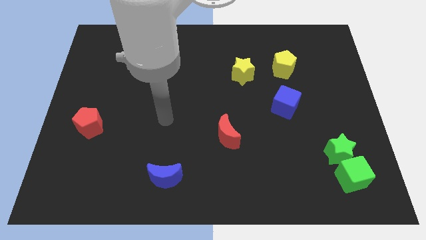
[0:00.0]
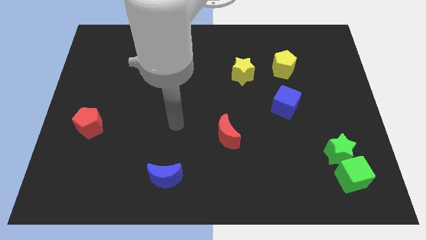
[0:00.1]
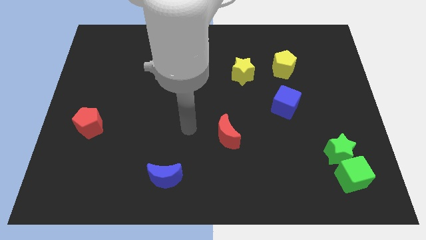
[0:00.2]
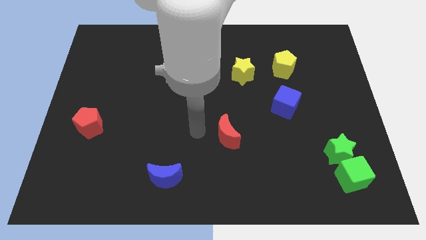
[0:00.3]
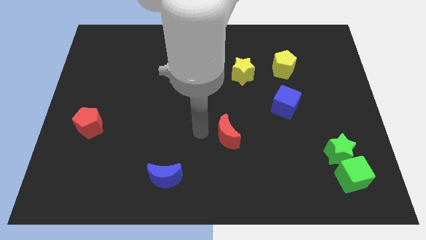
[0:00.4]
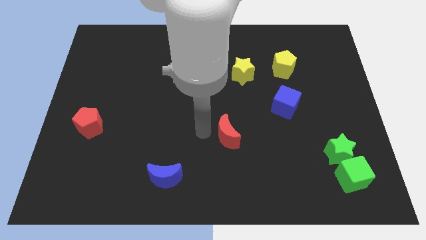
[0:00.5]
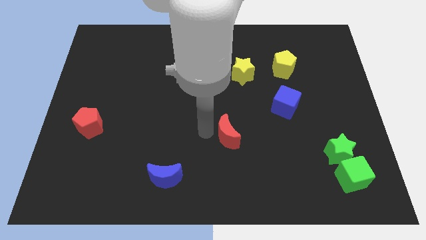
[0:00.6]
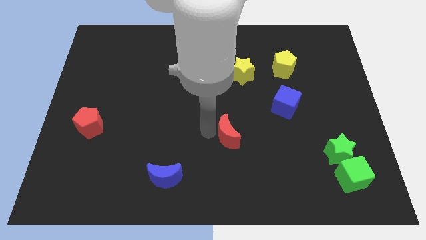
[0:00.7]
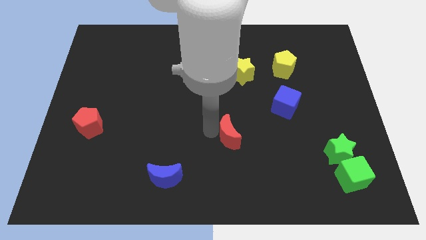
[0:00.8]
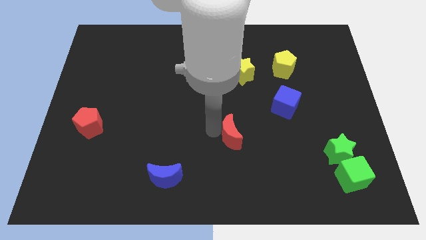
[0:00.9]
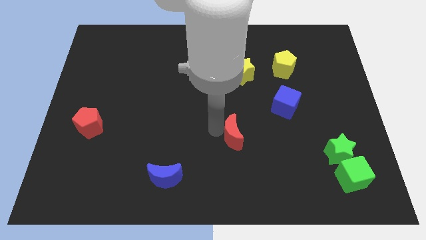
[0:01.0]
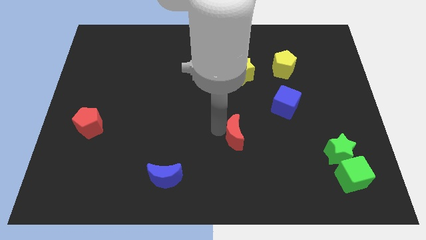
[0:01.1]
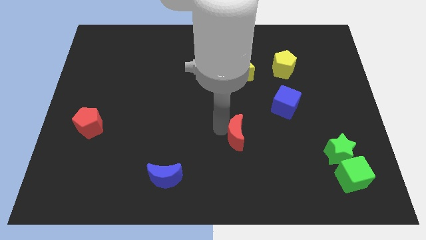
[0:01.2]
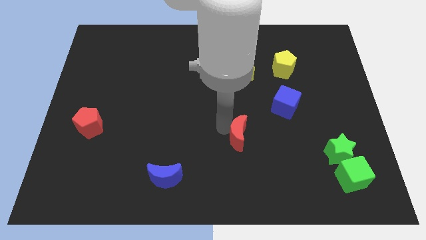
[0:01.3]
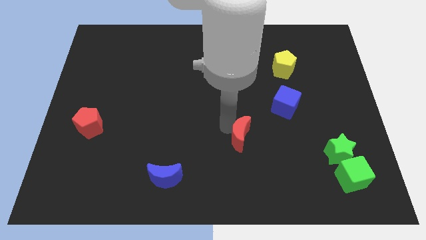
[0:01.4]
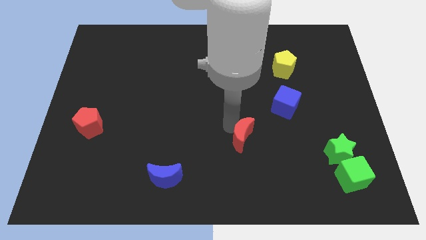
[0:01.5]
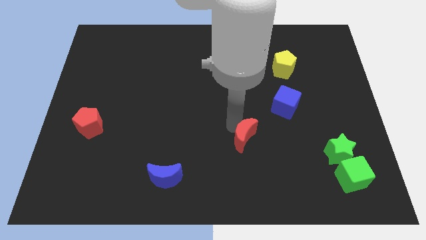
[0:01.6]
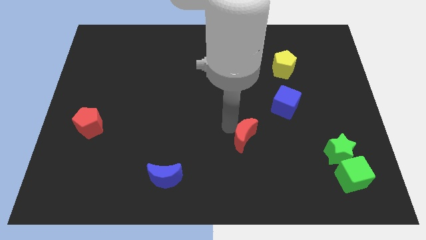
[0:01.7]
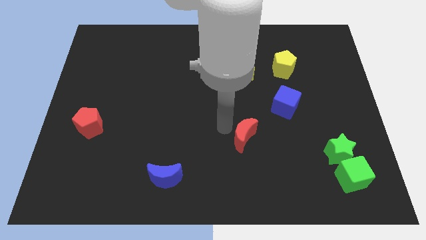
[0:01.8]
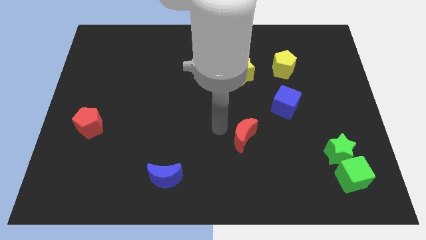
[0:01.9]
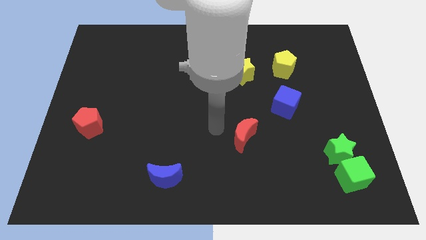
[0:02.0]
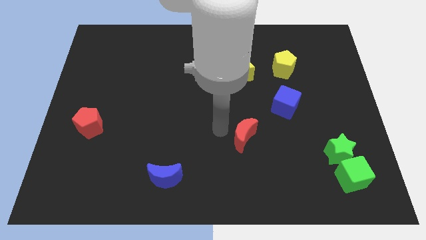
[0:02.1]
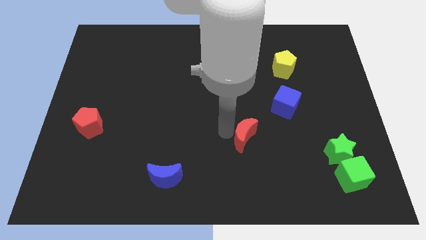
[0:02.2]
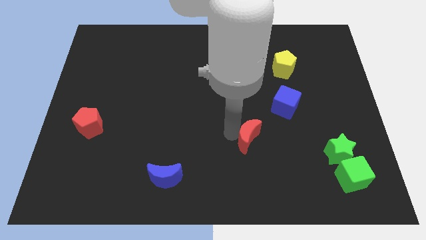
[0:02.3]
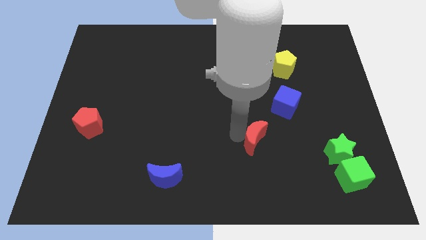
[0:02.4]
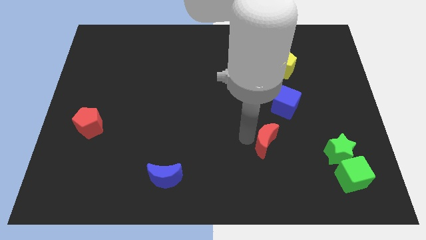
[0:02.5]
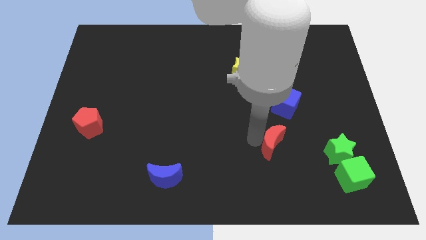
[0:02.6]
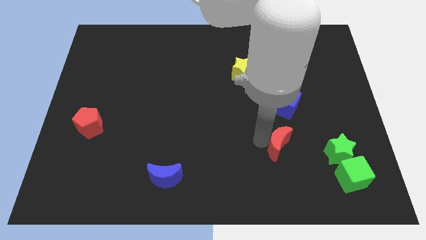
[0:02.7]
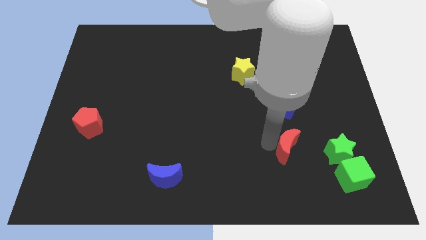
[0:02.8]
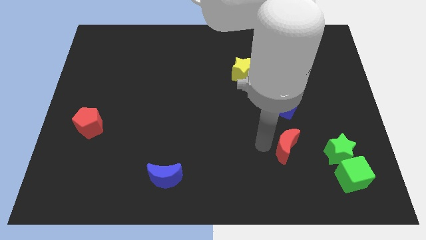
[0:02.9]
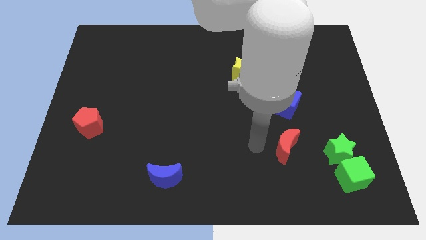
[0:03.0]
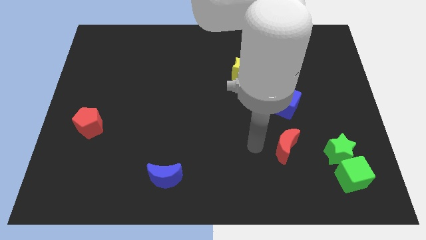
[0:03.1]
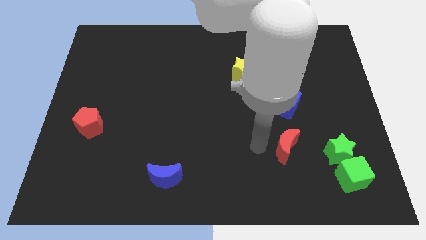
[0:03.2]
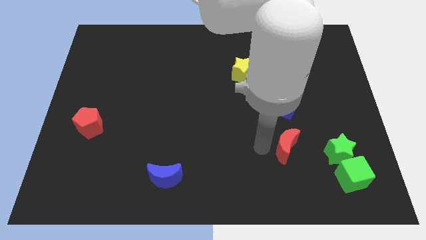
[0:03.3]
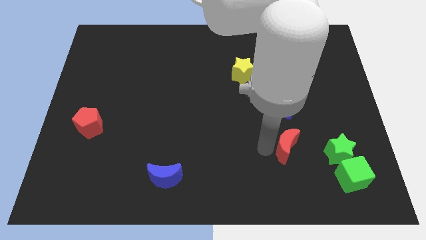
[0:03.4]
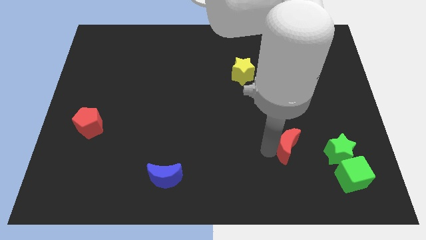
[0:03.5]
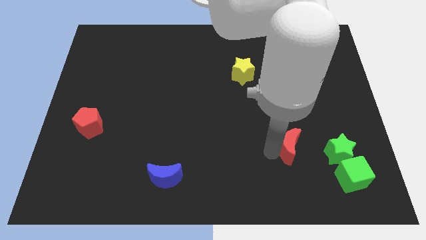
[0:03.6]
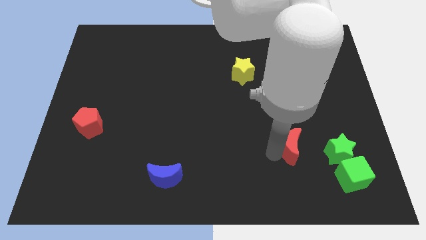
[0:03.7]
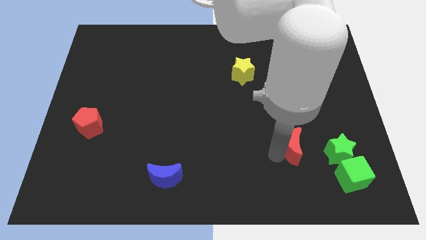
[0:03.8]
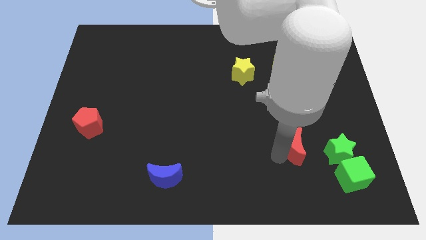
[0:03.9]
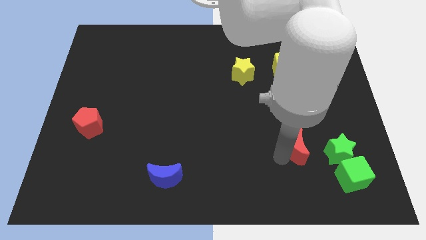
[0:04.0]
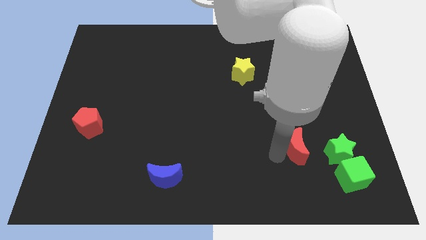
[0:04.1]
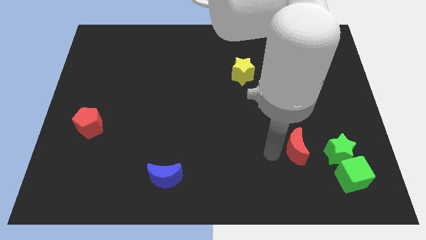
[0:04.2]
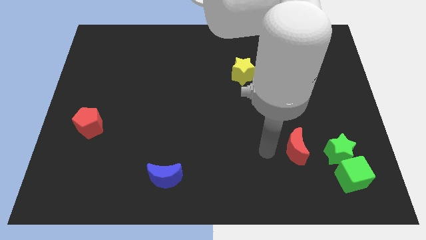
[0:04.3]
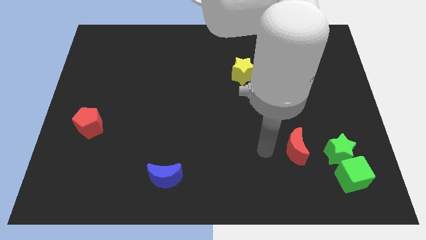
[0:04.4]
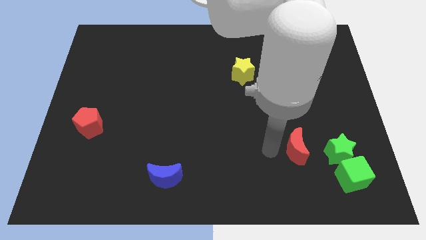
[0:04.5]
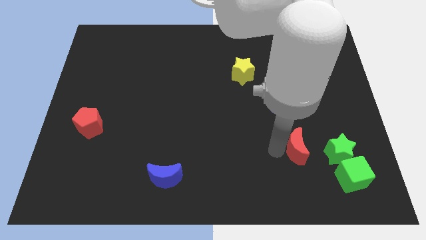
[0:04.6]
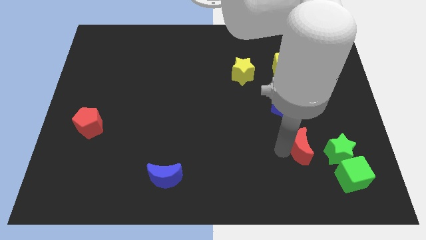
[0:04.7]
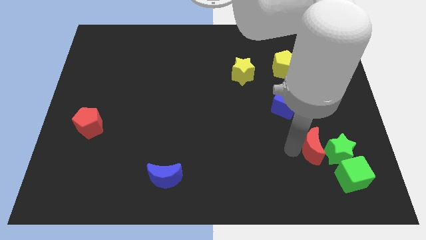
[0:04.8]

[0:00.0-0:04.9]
push the red moon towards the green star

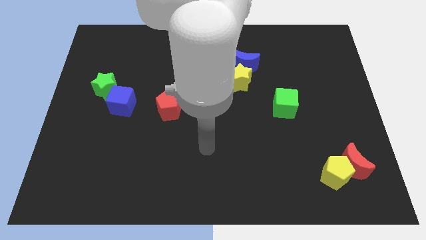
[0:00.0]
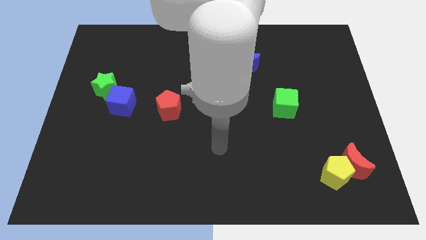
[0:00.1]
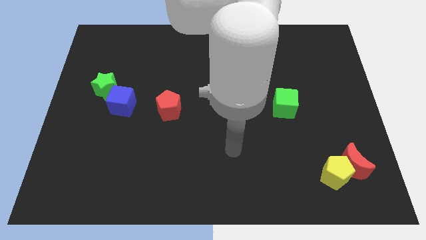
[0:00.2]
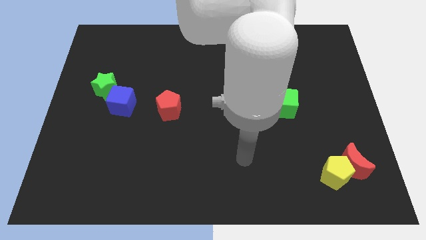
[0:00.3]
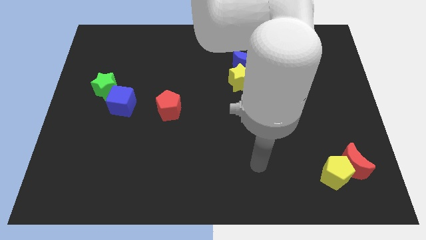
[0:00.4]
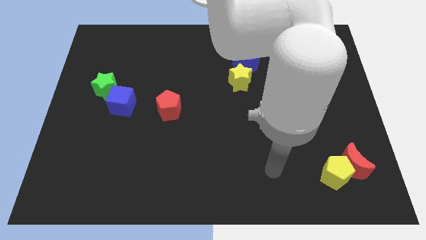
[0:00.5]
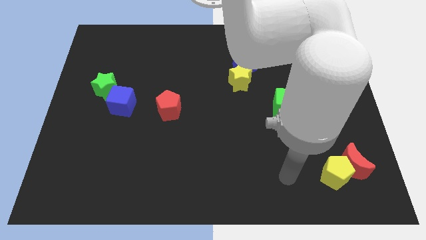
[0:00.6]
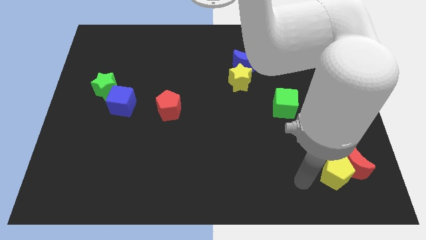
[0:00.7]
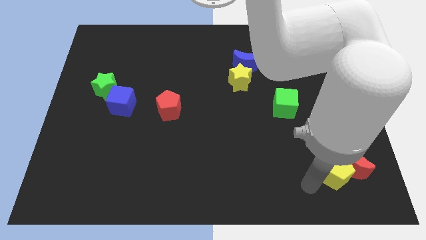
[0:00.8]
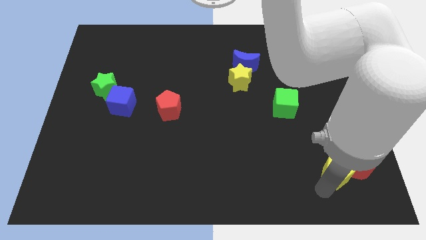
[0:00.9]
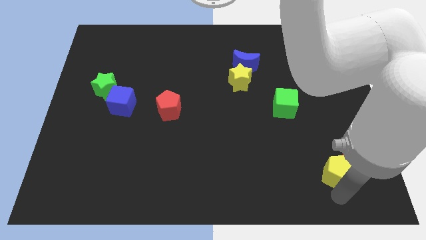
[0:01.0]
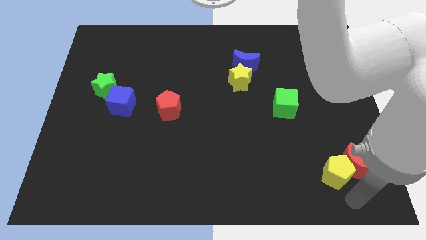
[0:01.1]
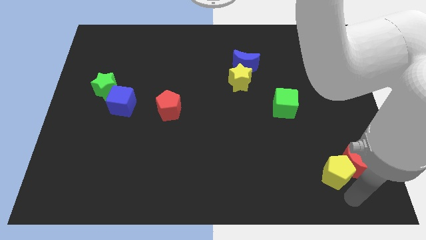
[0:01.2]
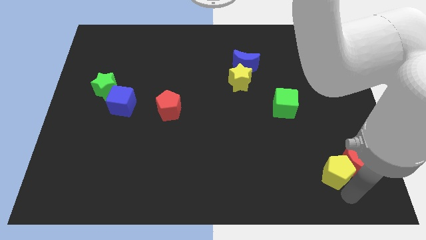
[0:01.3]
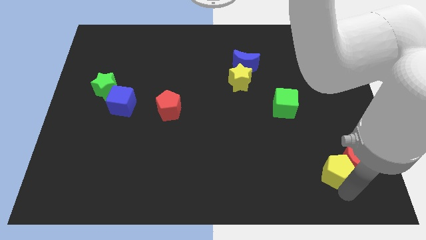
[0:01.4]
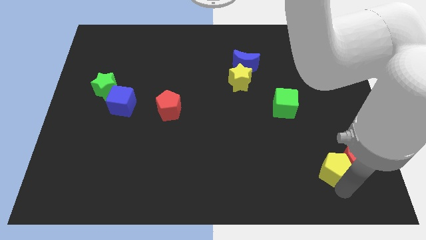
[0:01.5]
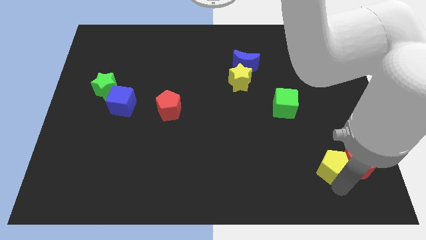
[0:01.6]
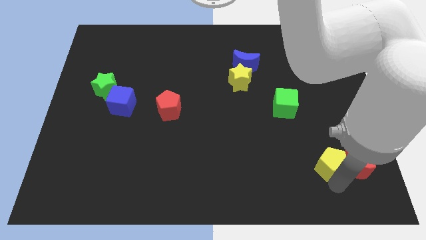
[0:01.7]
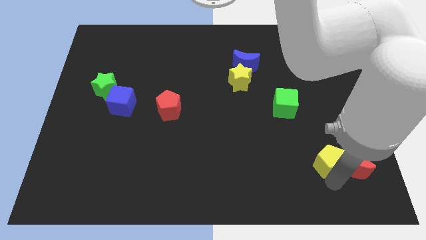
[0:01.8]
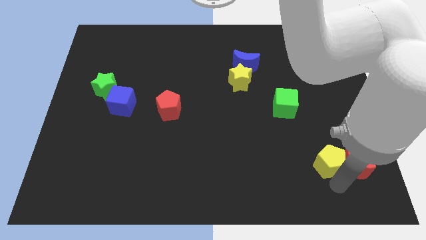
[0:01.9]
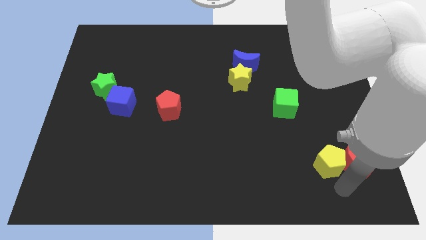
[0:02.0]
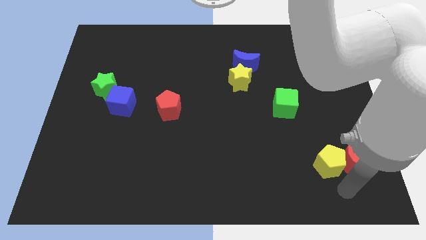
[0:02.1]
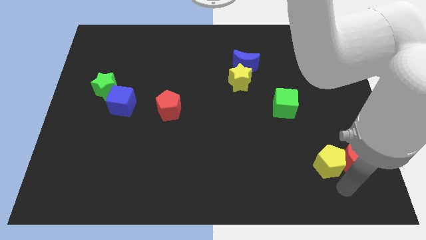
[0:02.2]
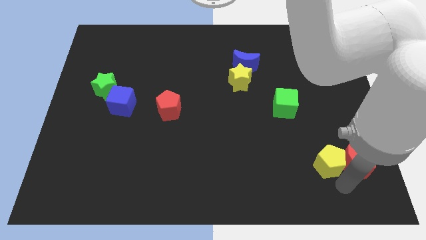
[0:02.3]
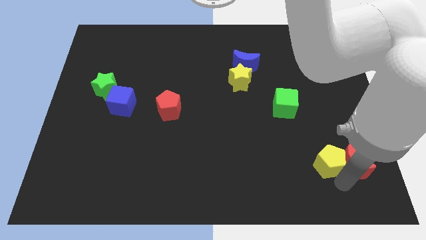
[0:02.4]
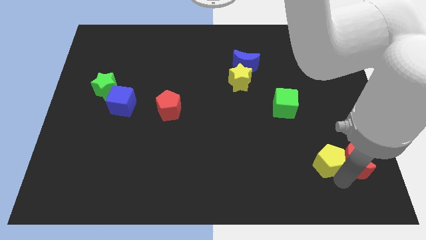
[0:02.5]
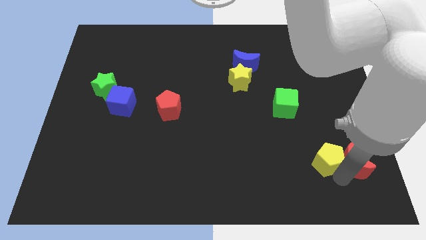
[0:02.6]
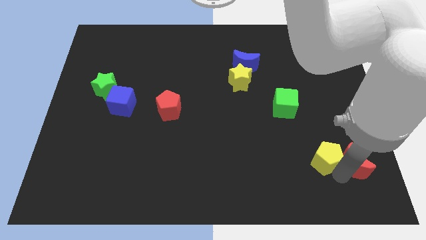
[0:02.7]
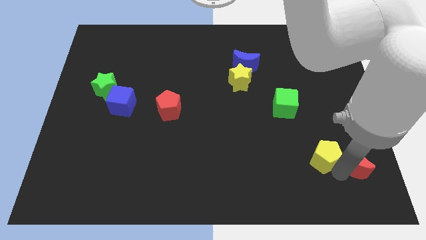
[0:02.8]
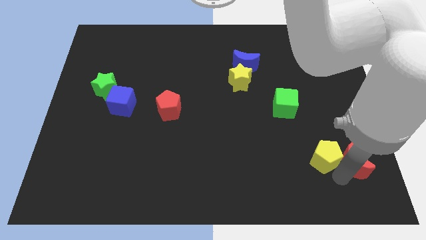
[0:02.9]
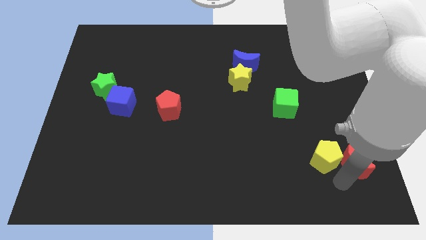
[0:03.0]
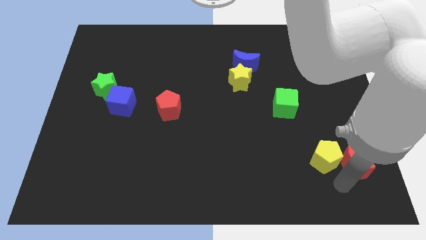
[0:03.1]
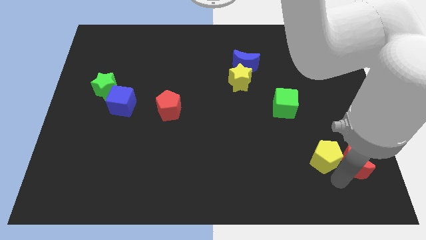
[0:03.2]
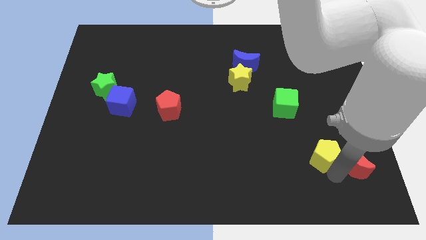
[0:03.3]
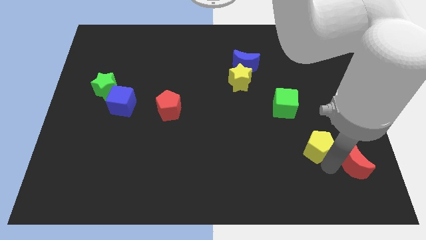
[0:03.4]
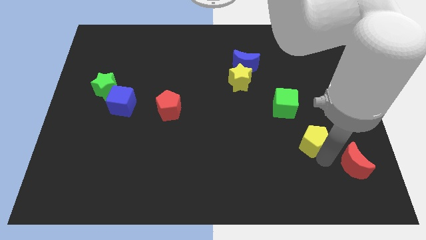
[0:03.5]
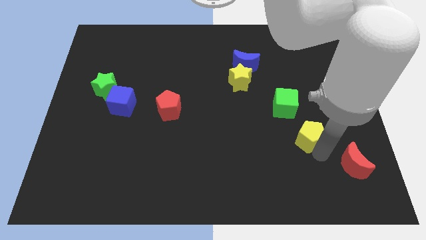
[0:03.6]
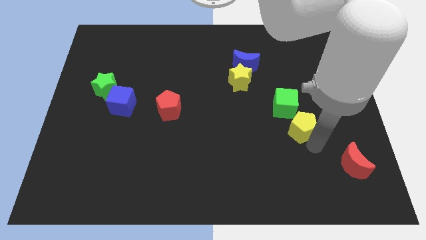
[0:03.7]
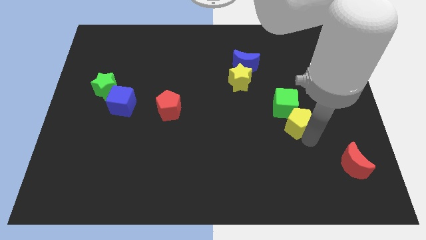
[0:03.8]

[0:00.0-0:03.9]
move the yellow pentagon close to the green cube
